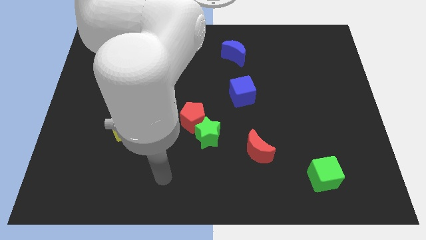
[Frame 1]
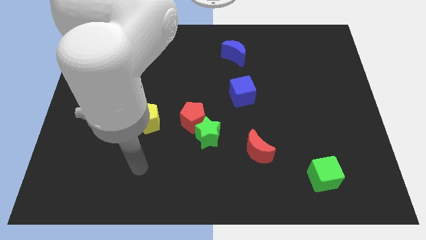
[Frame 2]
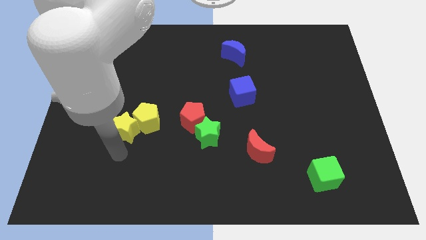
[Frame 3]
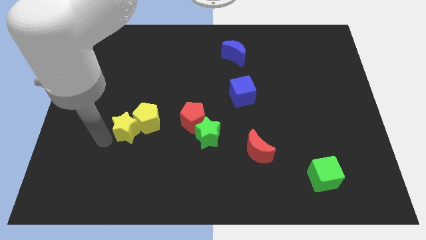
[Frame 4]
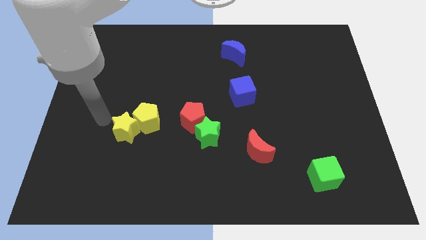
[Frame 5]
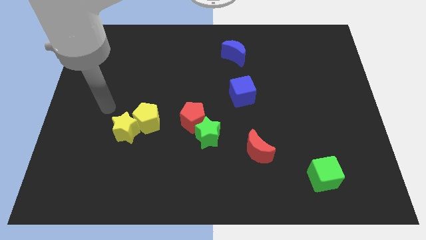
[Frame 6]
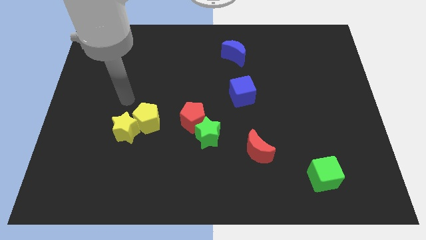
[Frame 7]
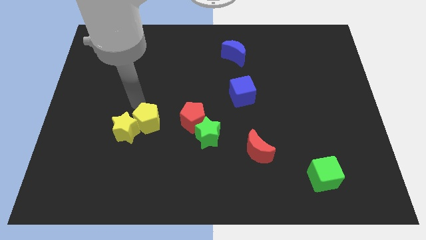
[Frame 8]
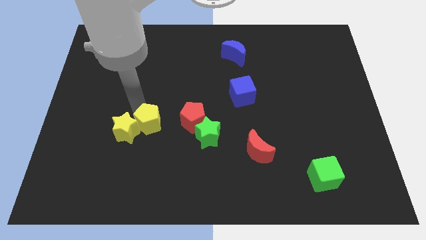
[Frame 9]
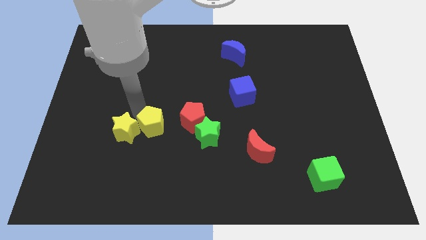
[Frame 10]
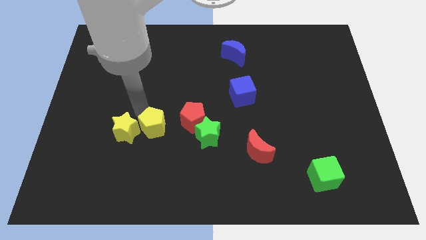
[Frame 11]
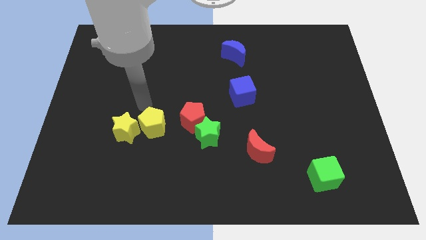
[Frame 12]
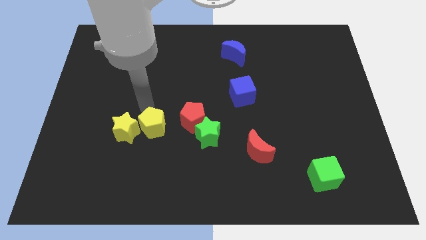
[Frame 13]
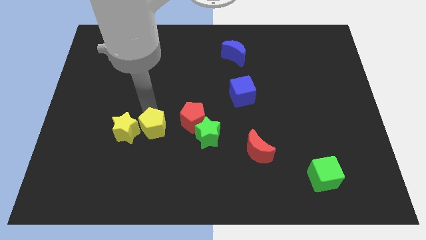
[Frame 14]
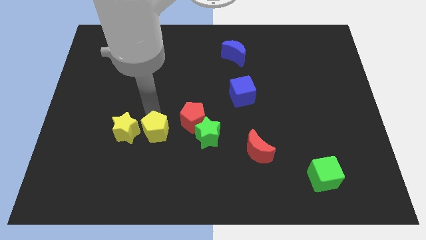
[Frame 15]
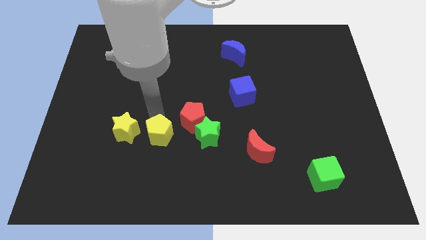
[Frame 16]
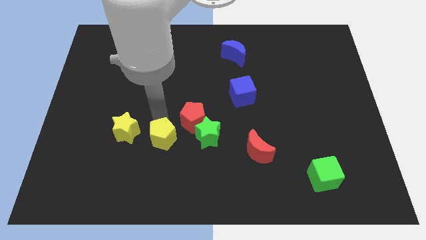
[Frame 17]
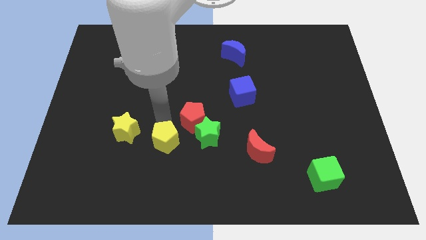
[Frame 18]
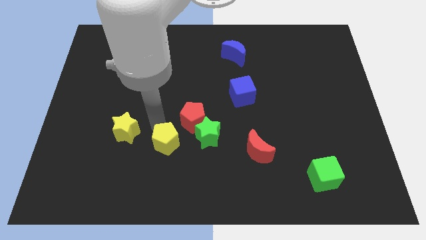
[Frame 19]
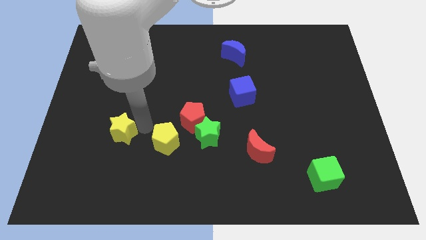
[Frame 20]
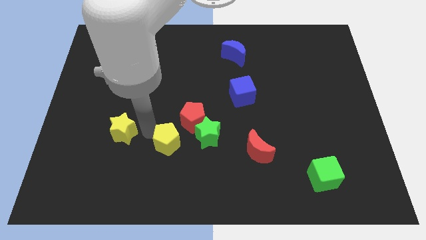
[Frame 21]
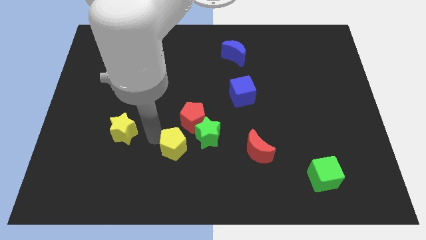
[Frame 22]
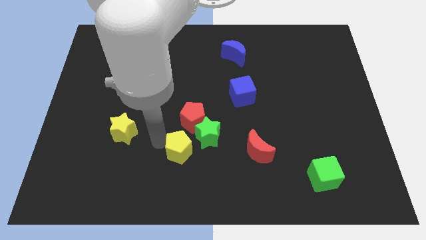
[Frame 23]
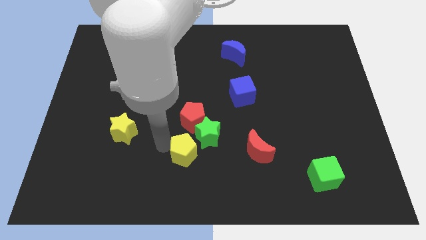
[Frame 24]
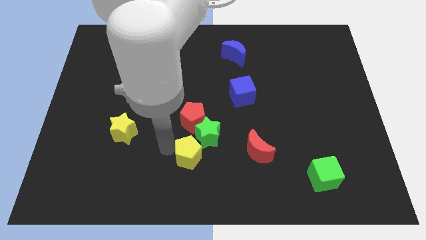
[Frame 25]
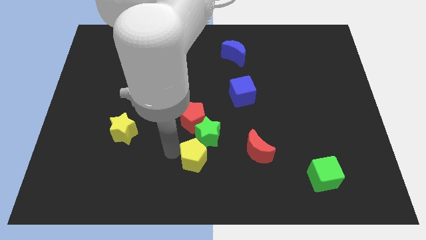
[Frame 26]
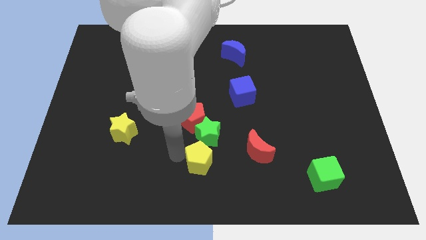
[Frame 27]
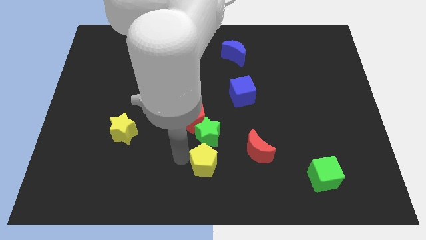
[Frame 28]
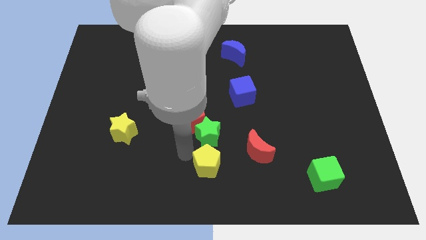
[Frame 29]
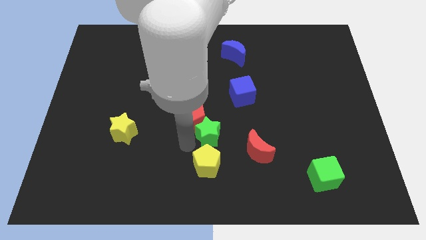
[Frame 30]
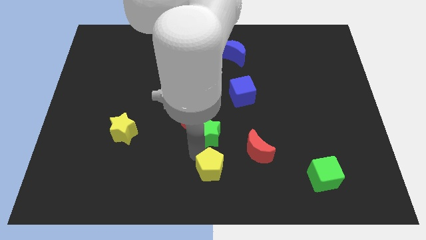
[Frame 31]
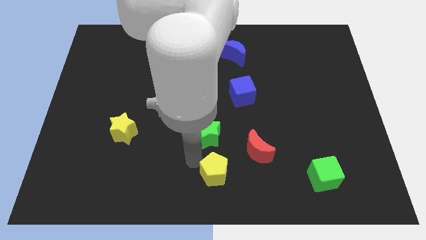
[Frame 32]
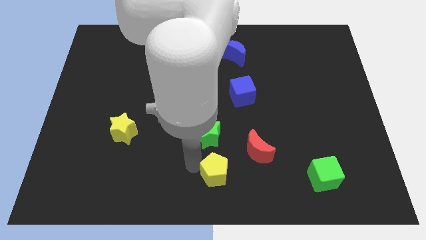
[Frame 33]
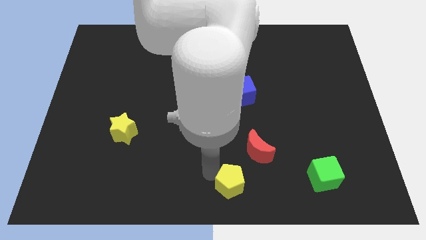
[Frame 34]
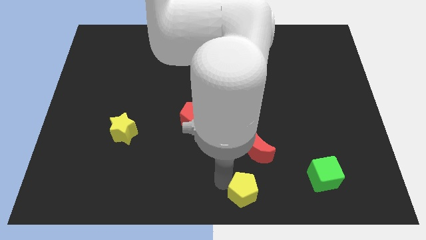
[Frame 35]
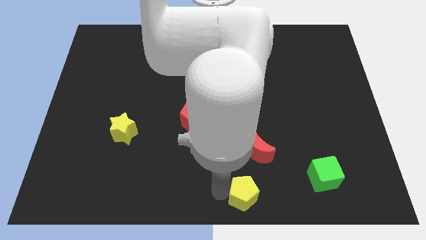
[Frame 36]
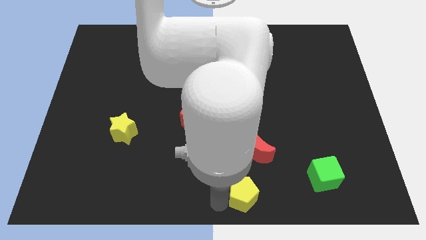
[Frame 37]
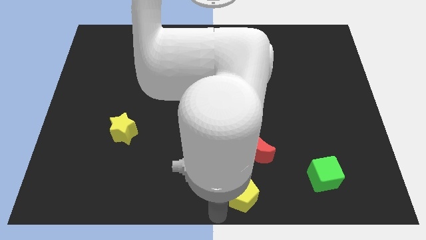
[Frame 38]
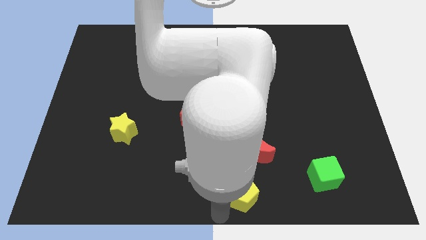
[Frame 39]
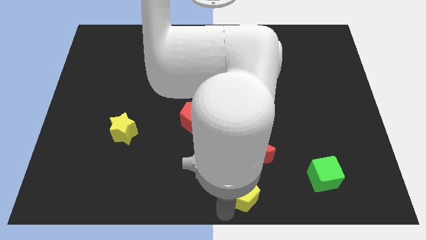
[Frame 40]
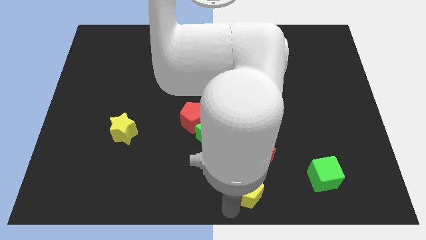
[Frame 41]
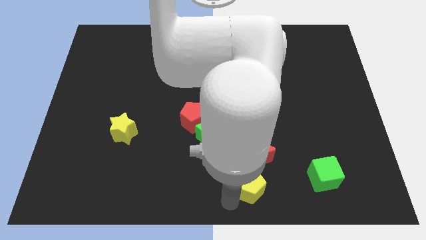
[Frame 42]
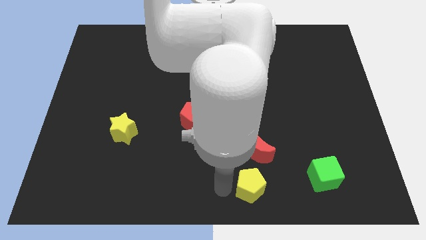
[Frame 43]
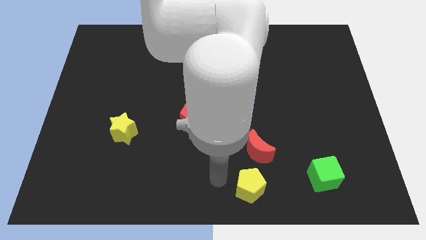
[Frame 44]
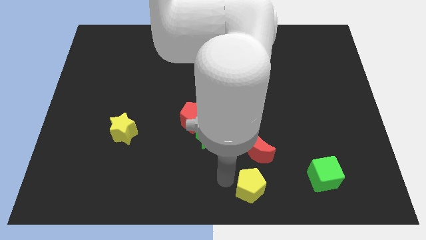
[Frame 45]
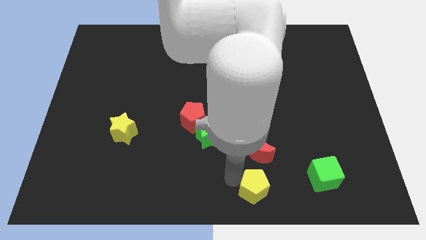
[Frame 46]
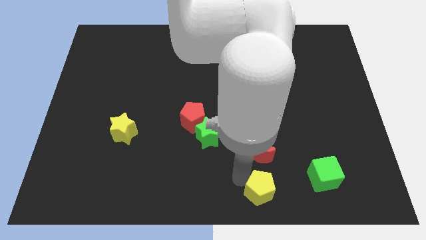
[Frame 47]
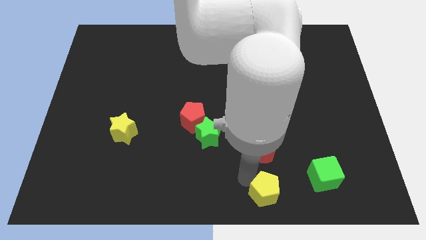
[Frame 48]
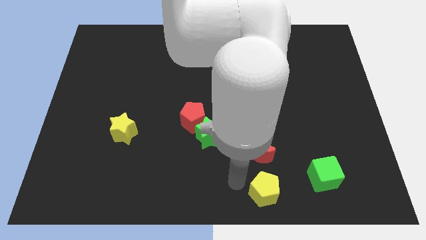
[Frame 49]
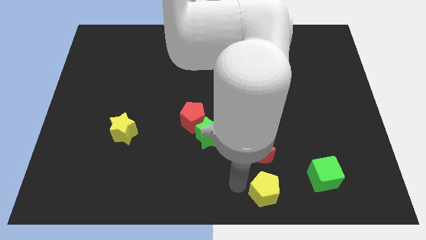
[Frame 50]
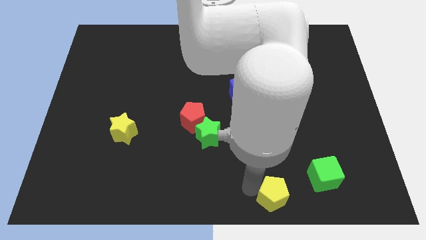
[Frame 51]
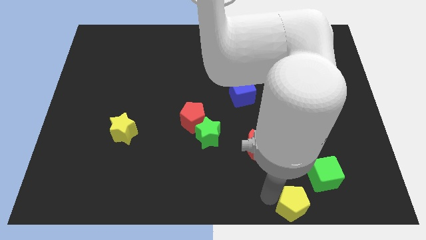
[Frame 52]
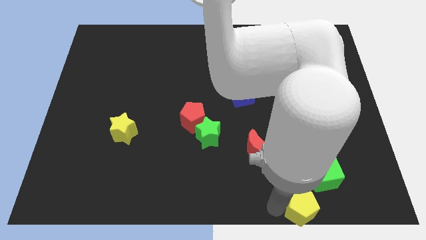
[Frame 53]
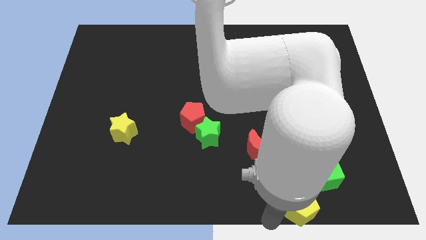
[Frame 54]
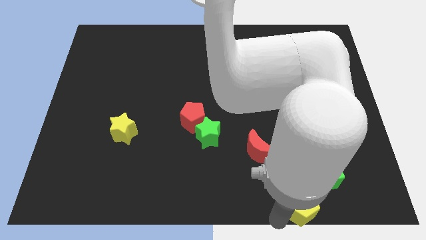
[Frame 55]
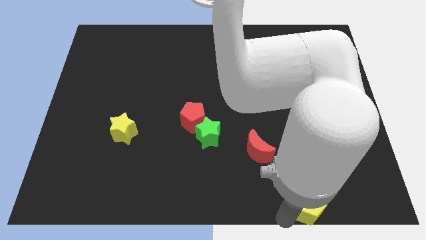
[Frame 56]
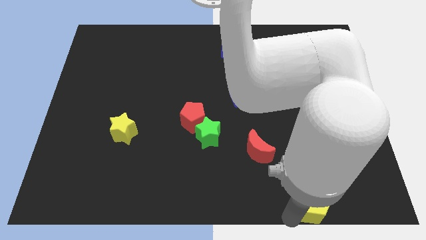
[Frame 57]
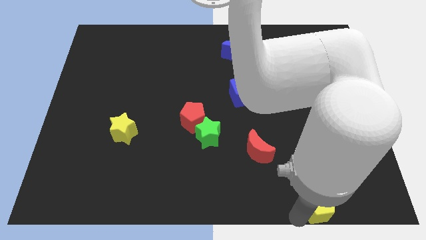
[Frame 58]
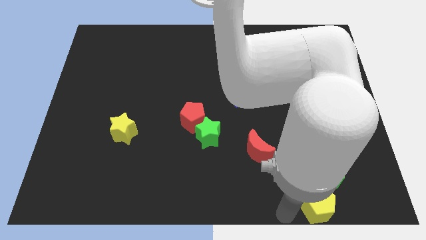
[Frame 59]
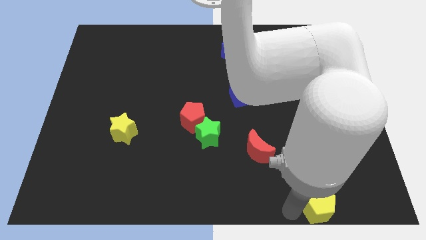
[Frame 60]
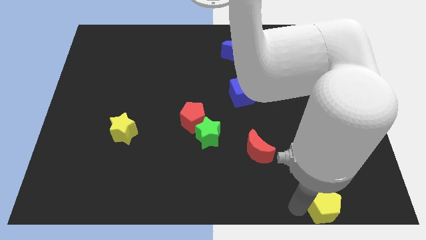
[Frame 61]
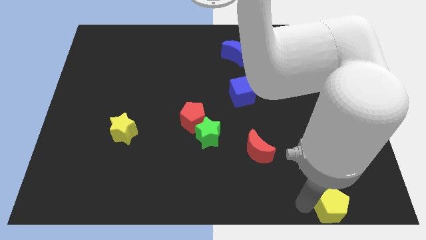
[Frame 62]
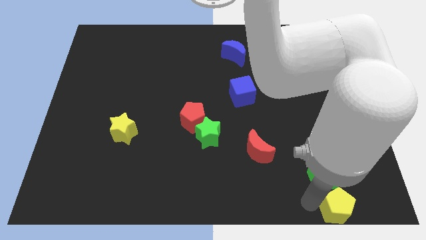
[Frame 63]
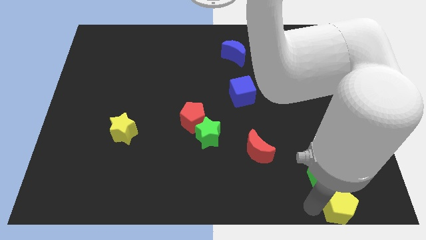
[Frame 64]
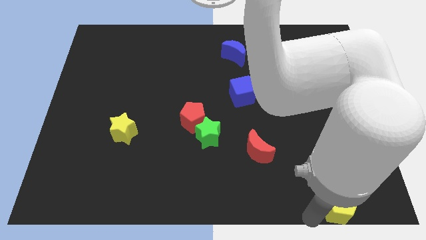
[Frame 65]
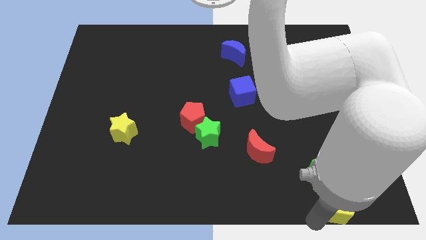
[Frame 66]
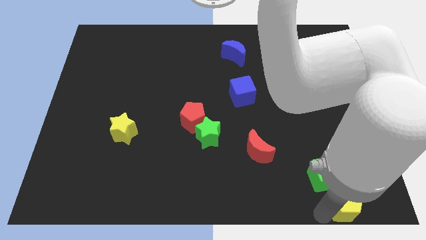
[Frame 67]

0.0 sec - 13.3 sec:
put the yellow pentagon to the bottom right
